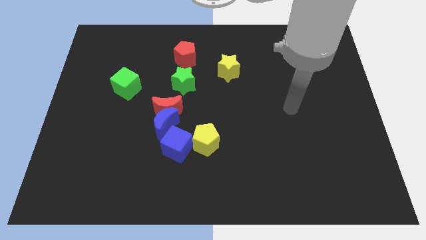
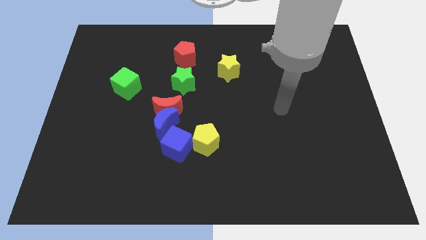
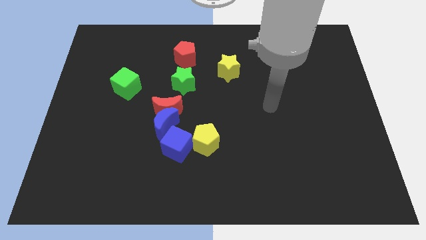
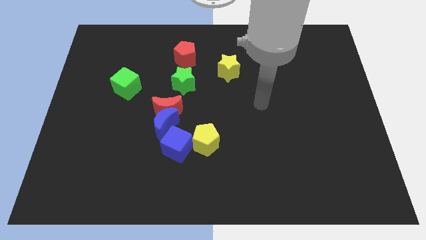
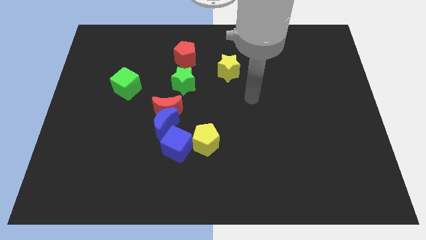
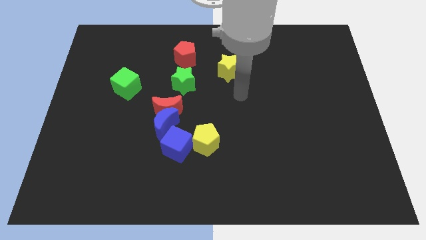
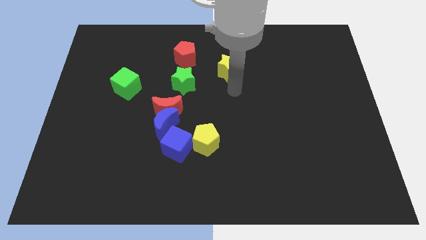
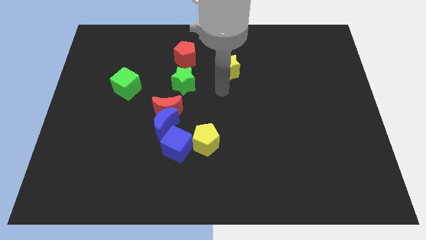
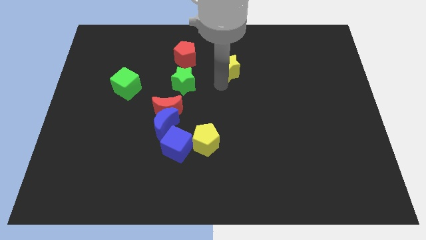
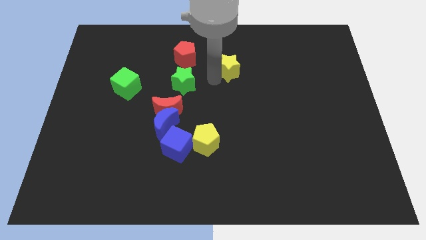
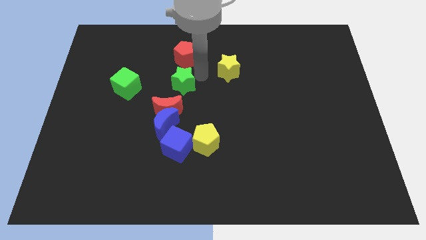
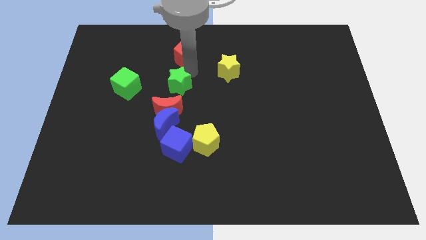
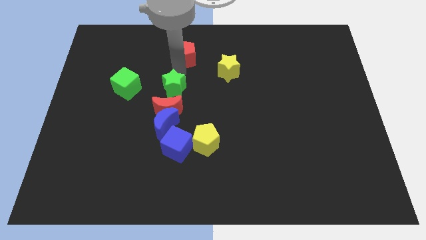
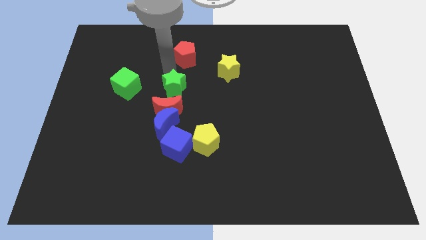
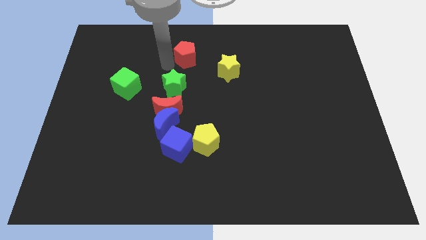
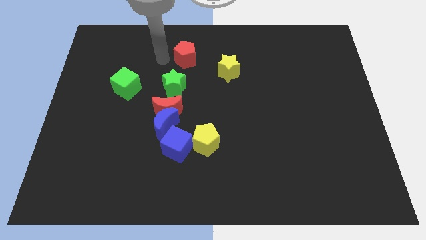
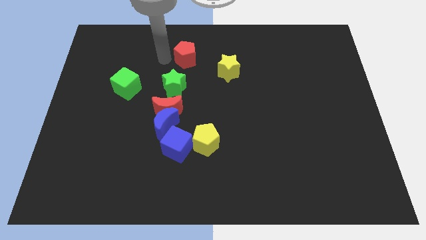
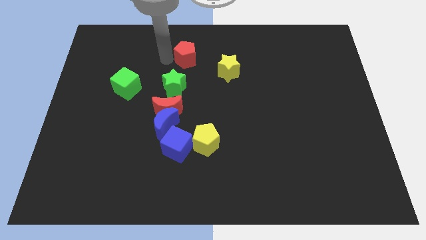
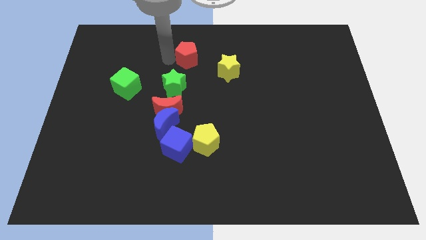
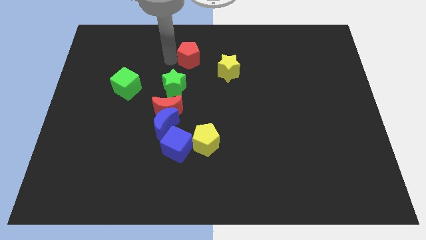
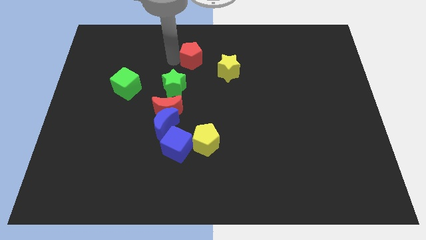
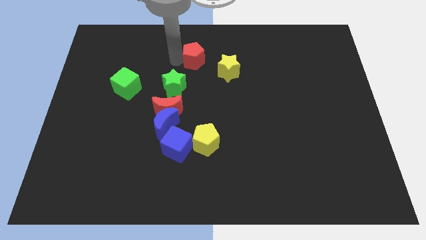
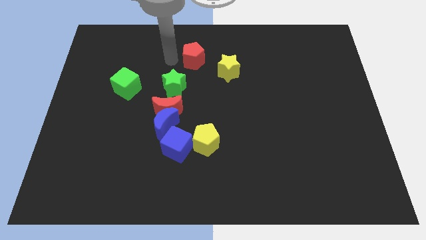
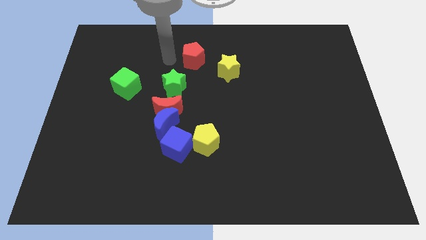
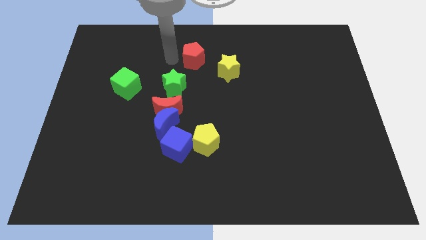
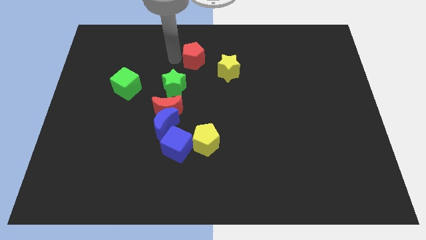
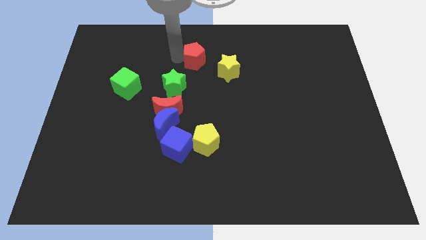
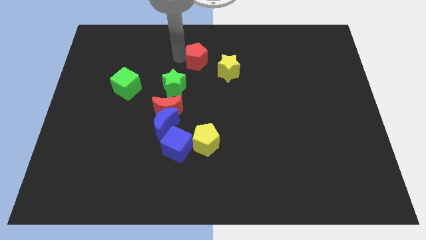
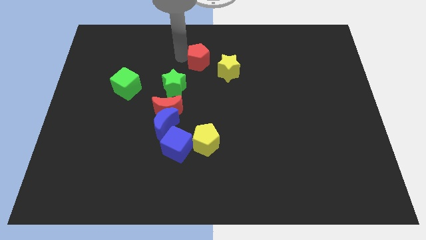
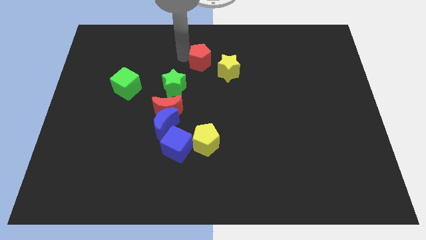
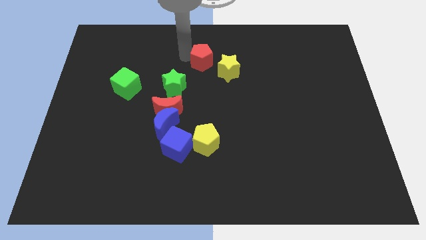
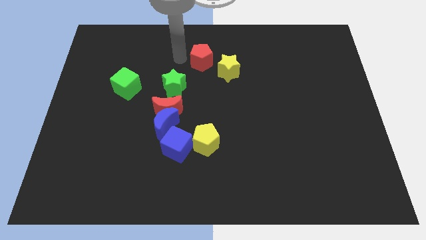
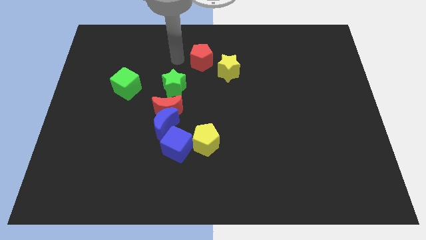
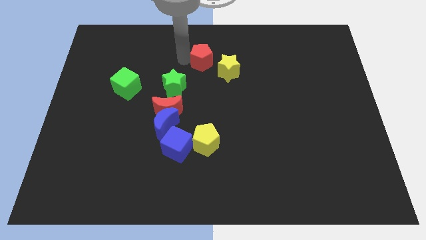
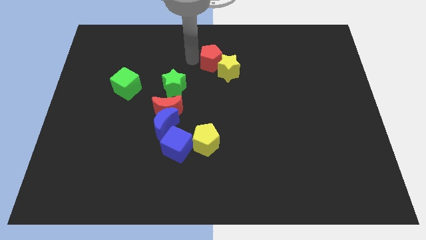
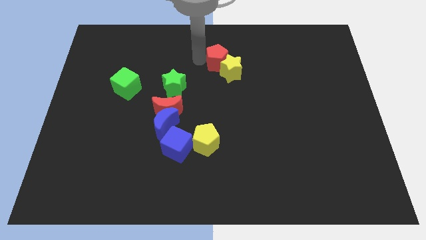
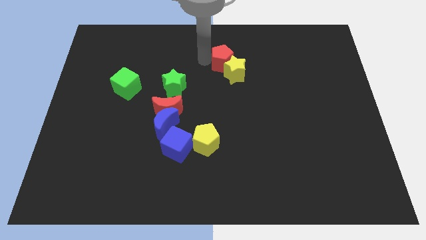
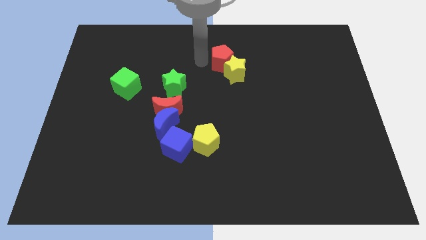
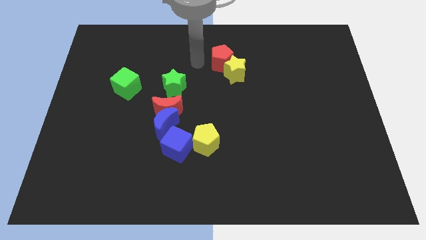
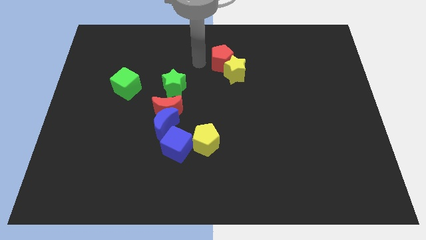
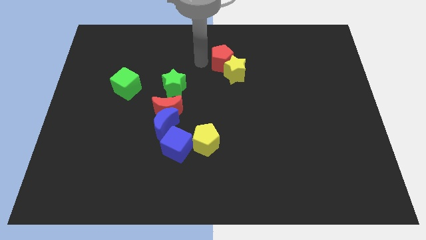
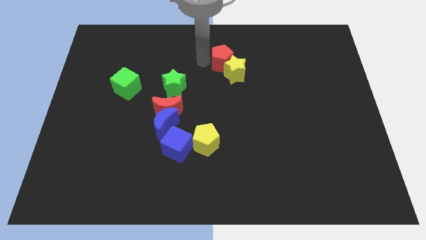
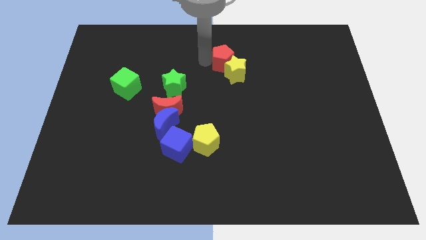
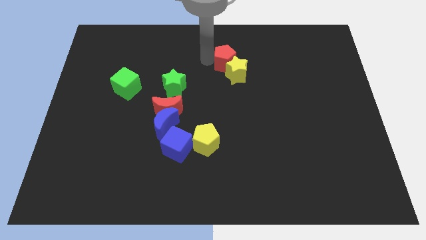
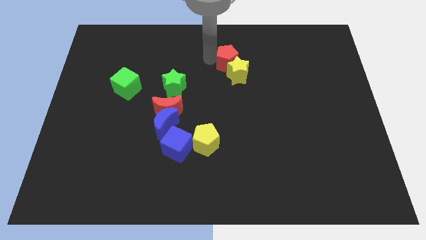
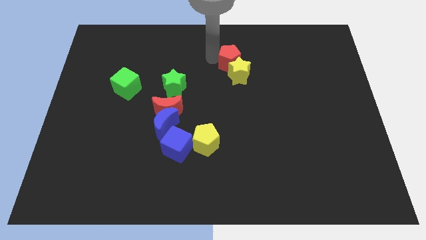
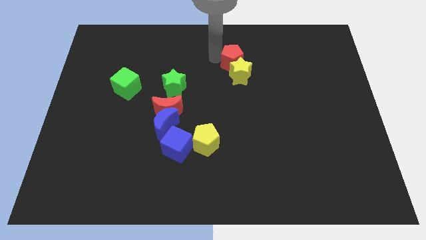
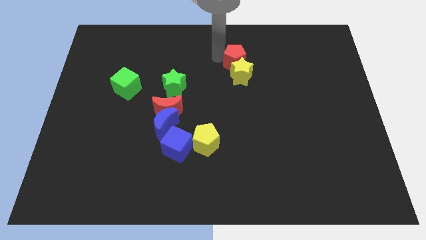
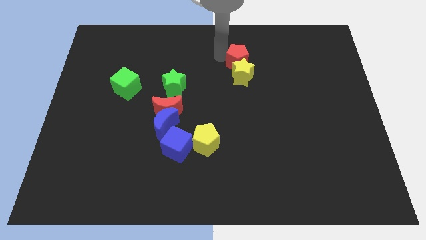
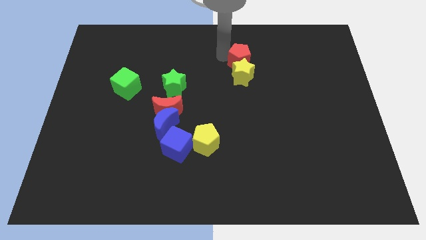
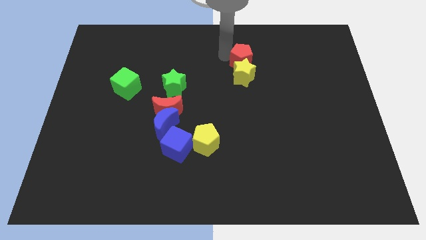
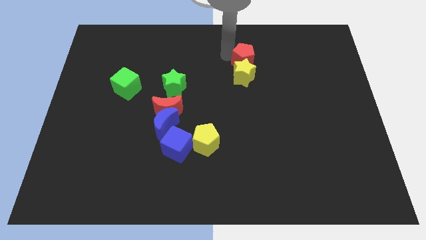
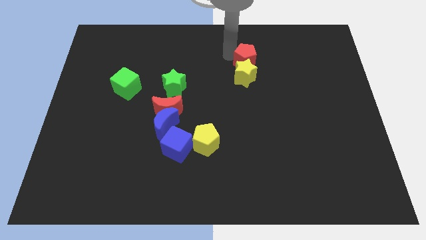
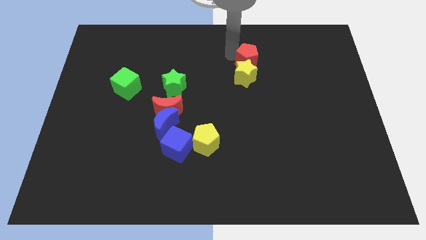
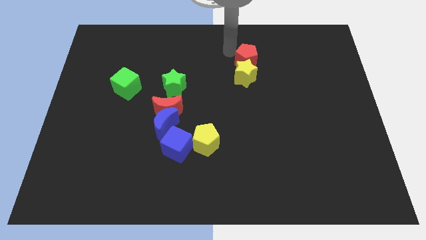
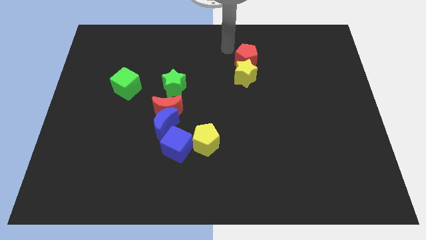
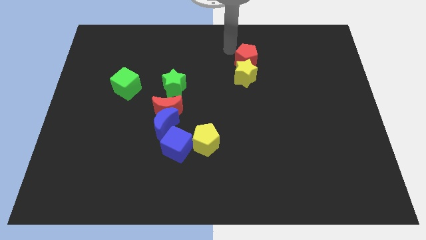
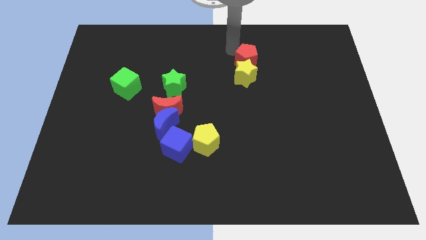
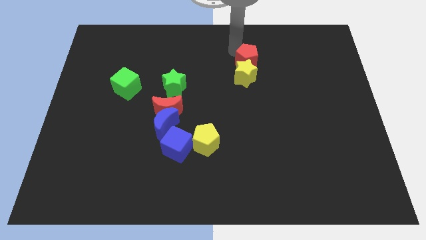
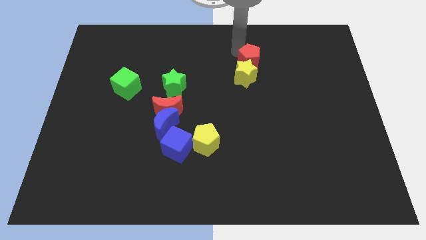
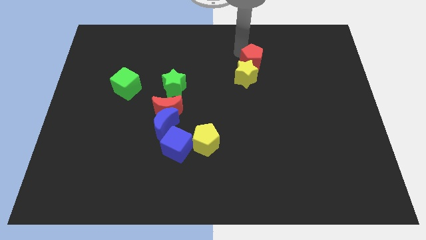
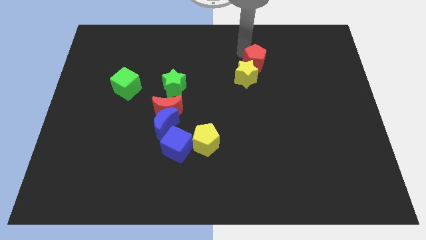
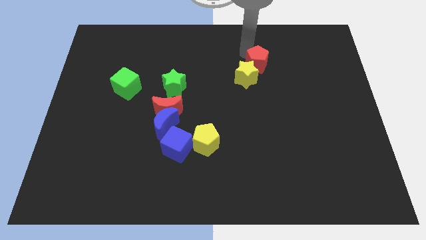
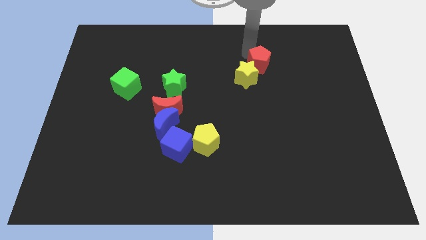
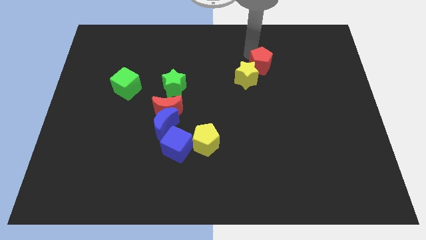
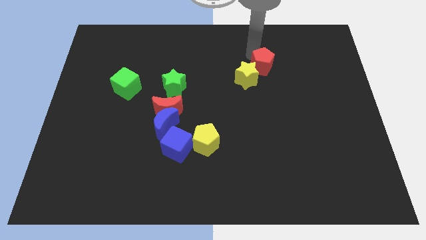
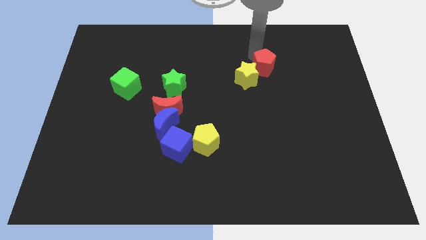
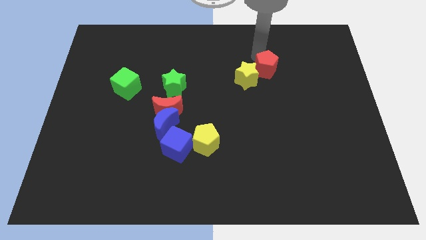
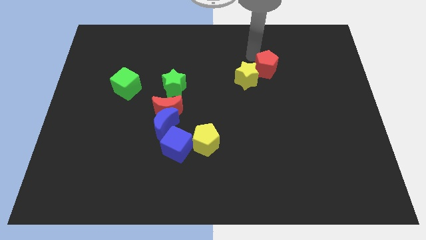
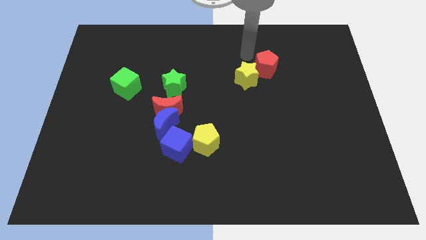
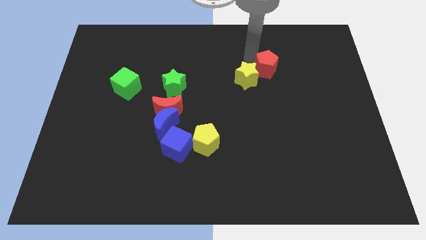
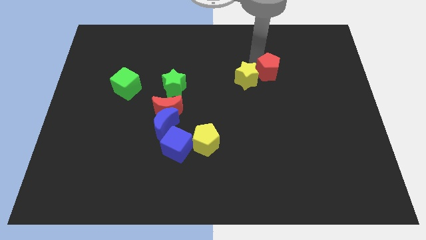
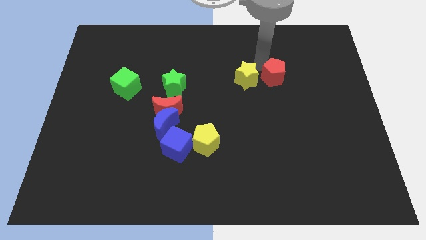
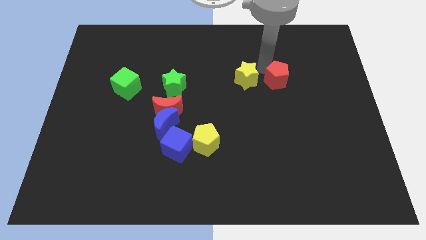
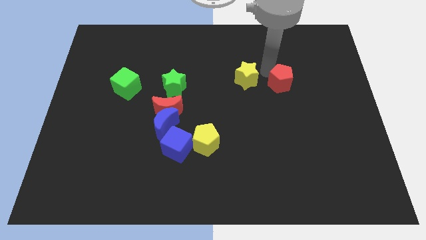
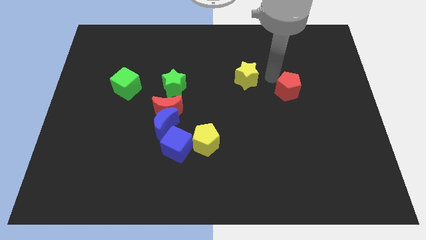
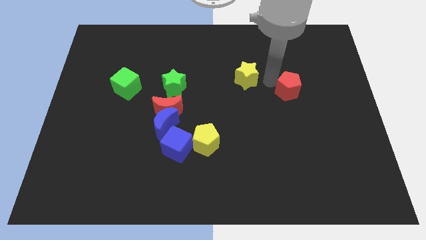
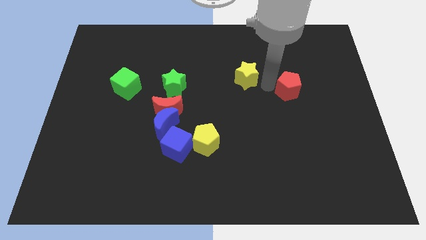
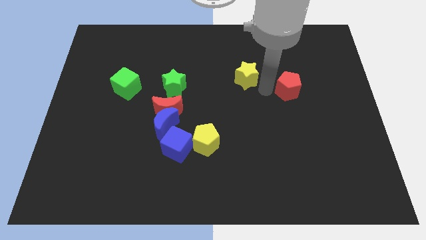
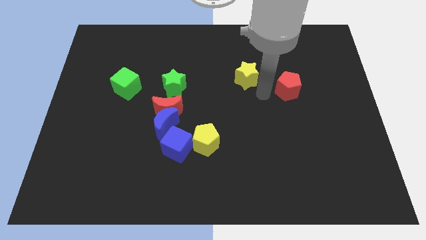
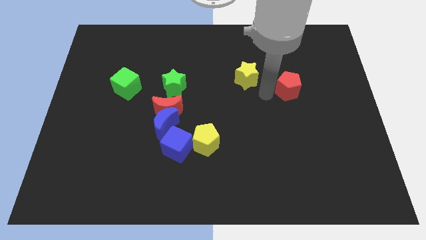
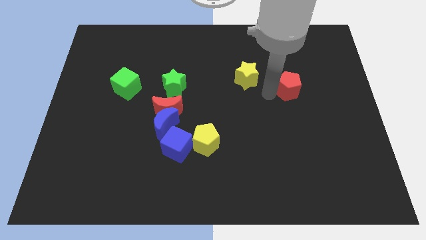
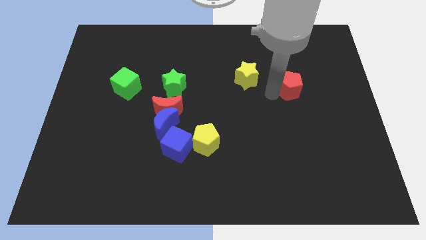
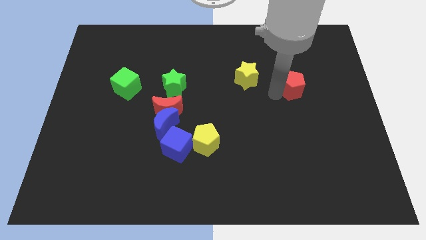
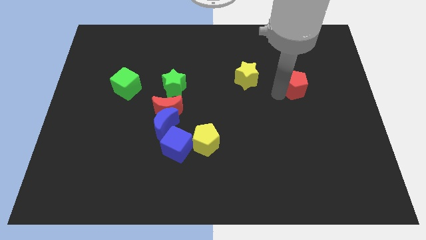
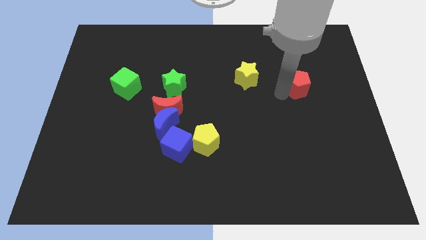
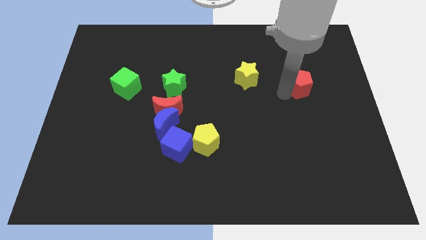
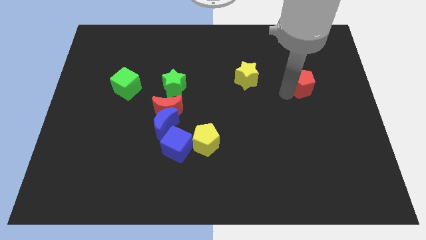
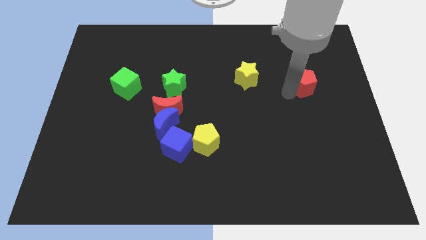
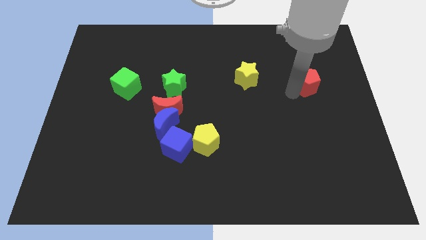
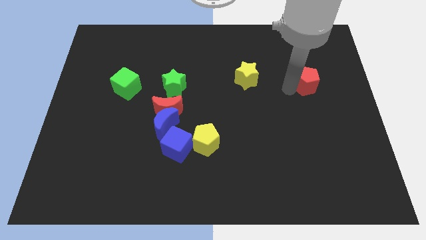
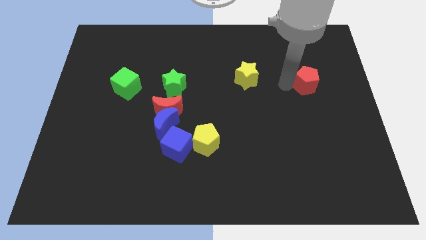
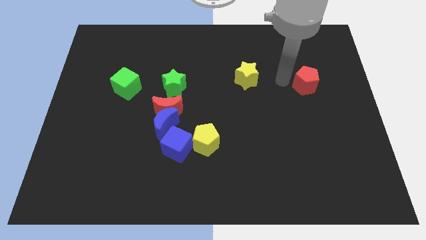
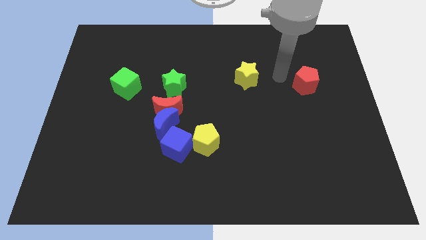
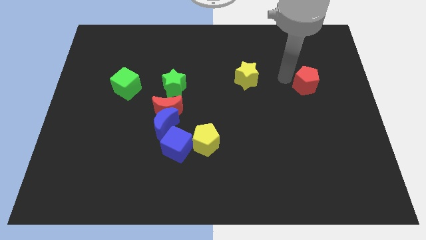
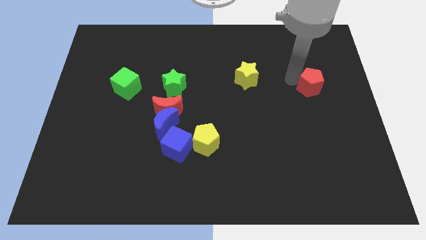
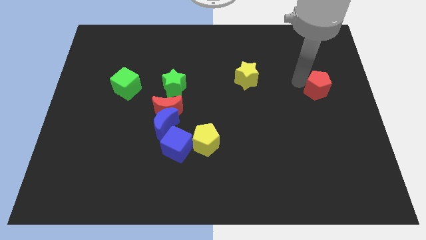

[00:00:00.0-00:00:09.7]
move the red pentagon to the center right
